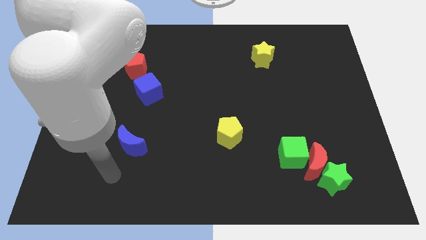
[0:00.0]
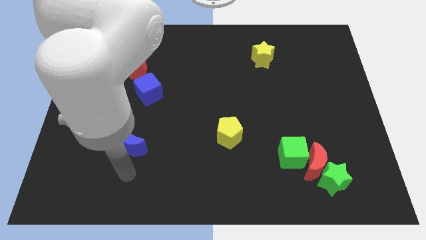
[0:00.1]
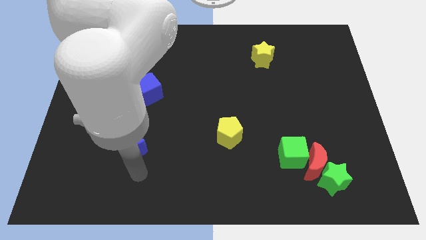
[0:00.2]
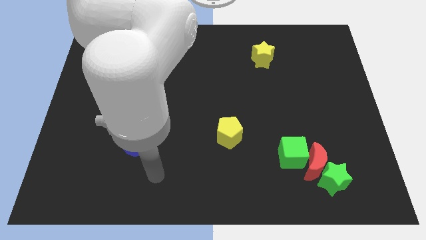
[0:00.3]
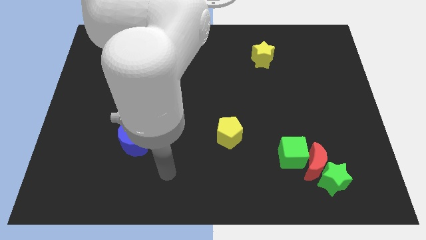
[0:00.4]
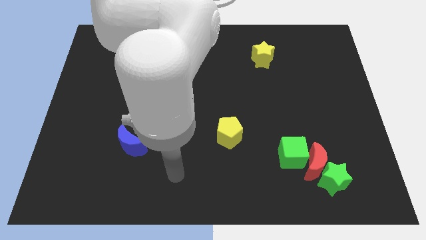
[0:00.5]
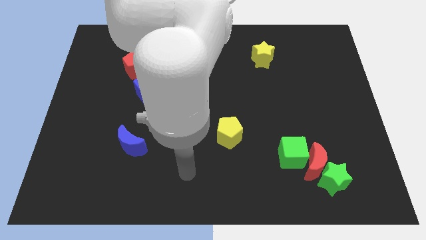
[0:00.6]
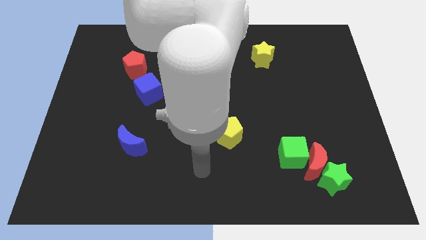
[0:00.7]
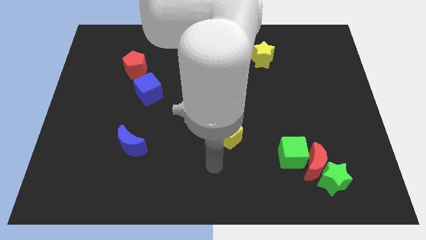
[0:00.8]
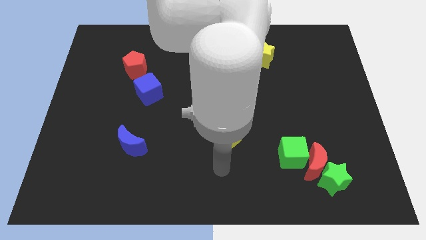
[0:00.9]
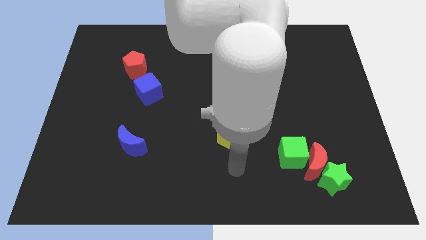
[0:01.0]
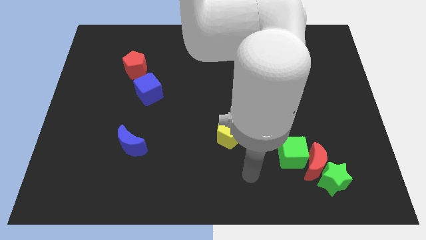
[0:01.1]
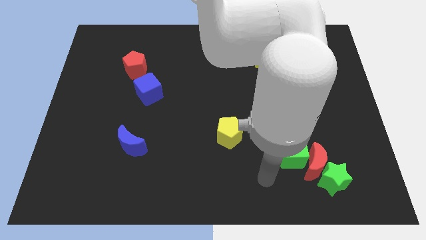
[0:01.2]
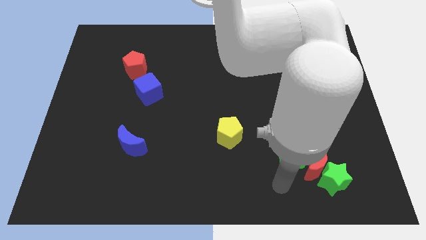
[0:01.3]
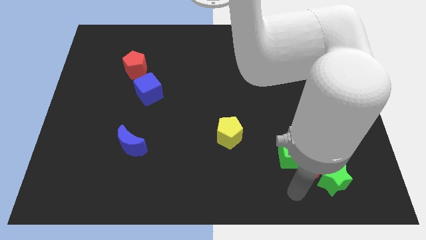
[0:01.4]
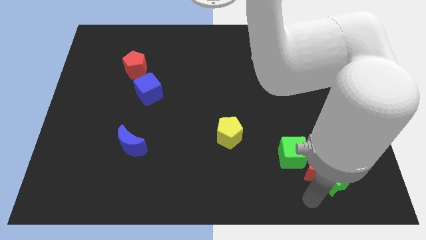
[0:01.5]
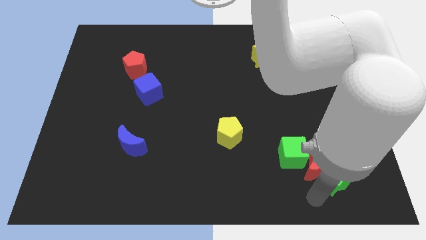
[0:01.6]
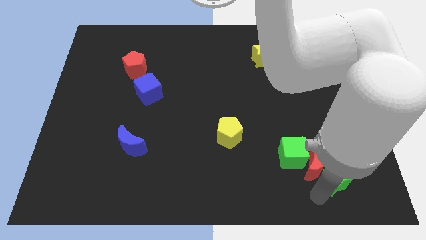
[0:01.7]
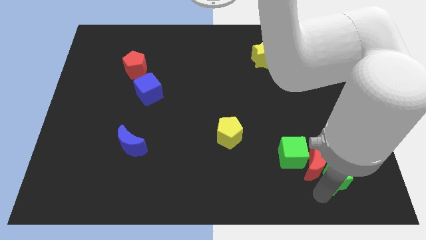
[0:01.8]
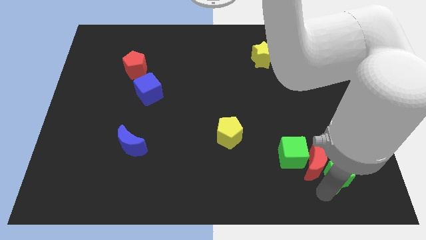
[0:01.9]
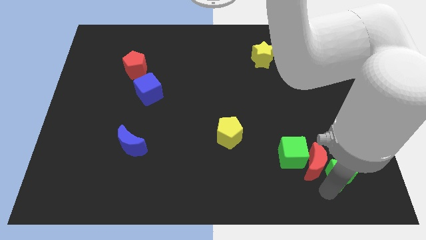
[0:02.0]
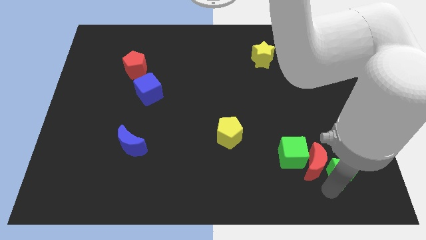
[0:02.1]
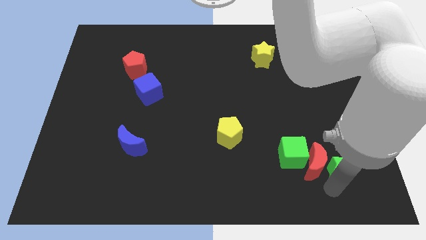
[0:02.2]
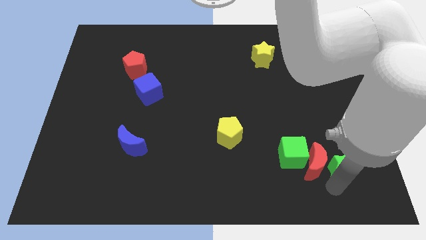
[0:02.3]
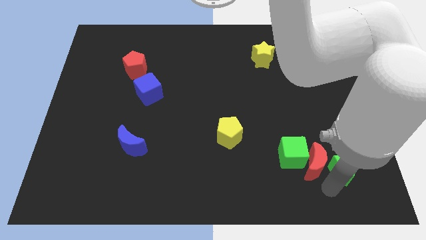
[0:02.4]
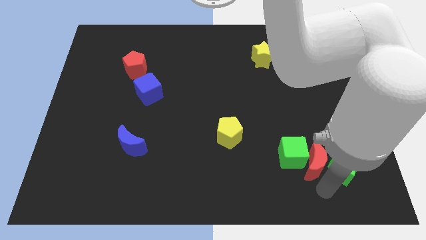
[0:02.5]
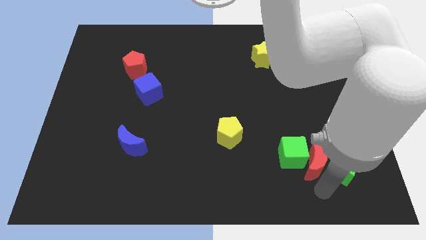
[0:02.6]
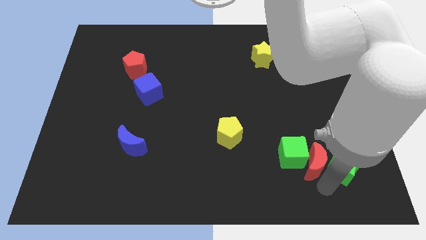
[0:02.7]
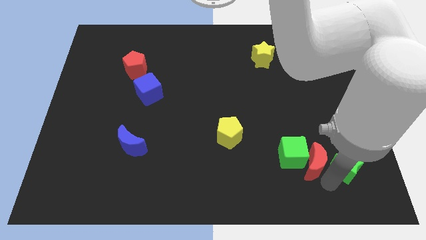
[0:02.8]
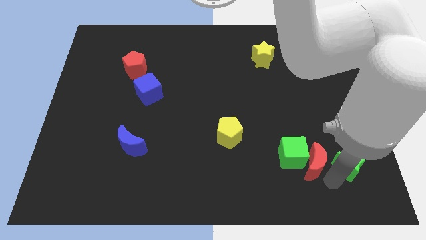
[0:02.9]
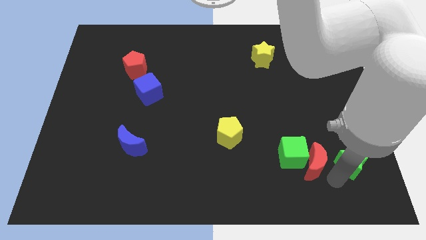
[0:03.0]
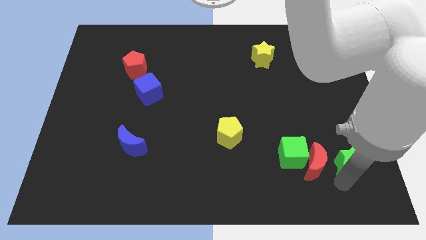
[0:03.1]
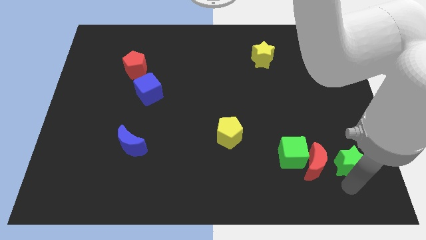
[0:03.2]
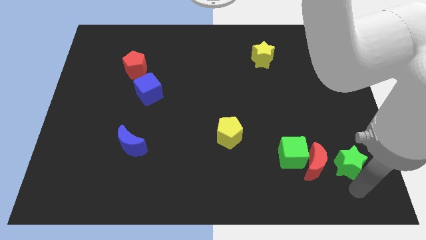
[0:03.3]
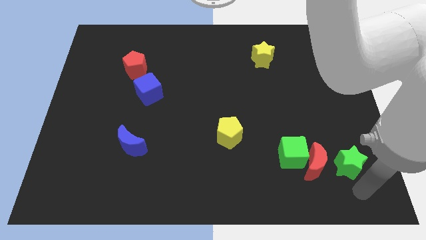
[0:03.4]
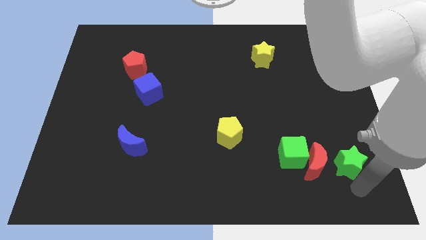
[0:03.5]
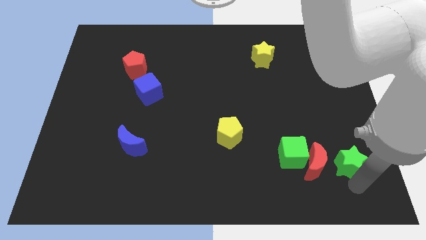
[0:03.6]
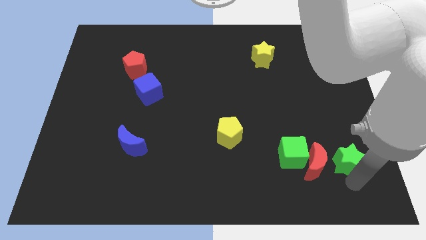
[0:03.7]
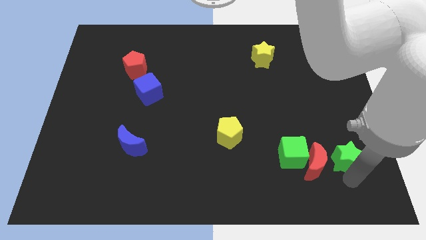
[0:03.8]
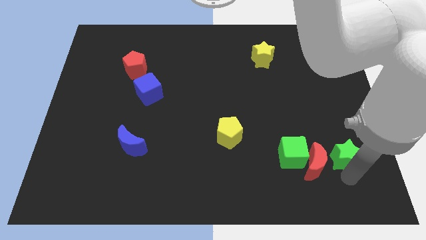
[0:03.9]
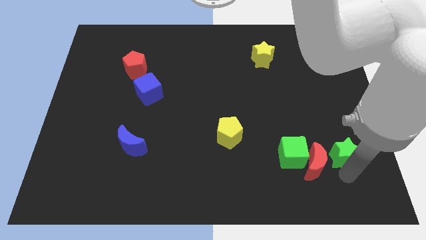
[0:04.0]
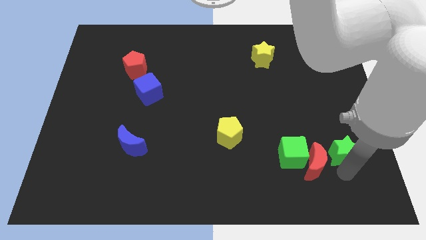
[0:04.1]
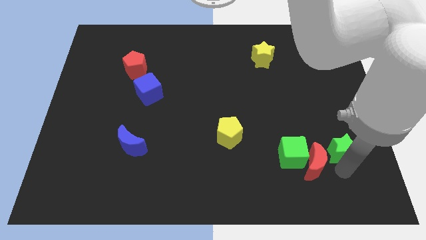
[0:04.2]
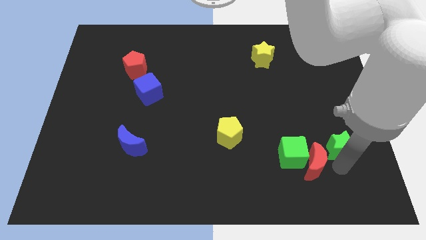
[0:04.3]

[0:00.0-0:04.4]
push the green star a little upwards

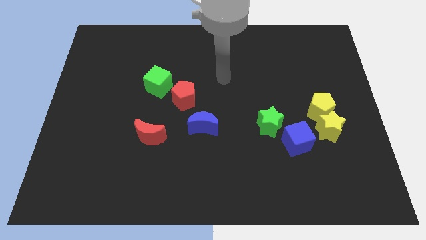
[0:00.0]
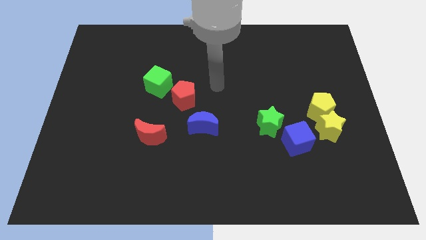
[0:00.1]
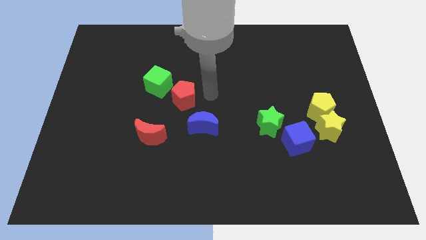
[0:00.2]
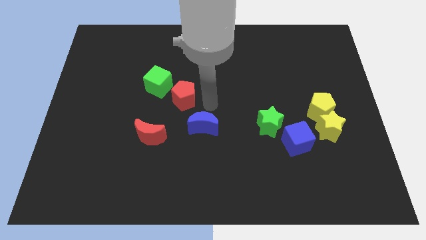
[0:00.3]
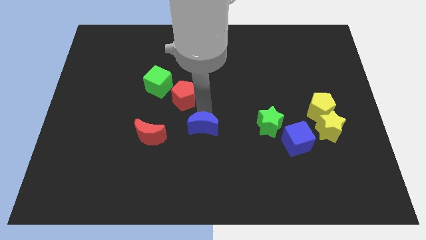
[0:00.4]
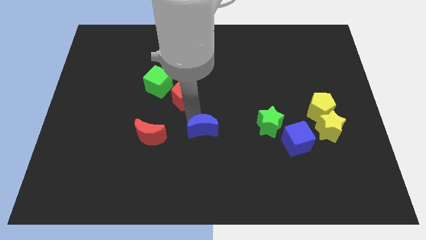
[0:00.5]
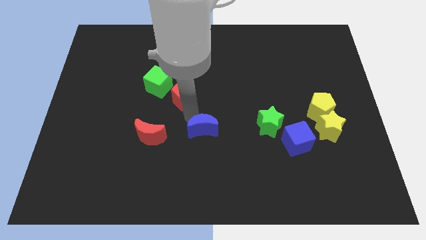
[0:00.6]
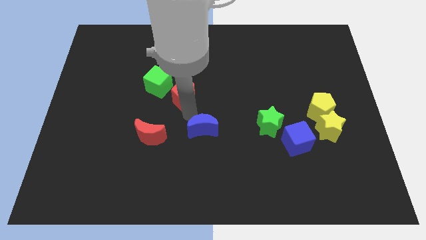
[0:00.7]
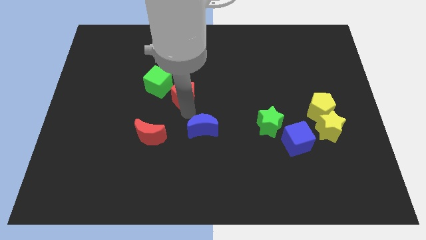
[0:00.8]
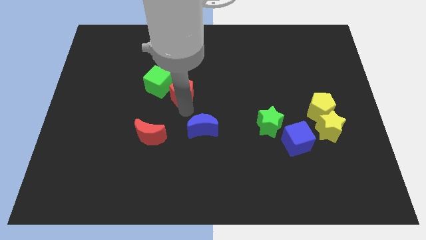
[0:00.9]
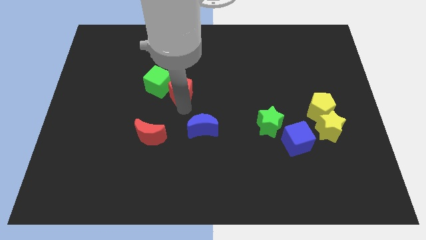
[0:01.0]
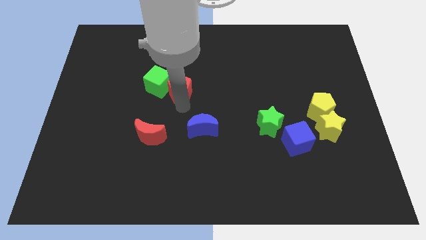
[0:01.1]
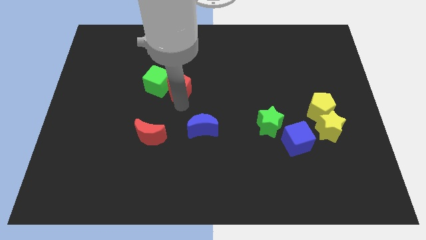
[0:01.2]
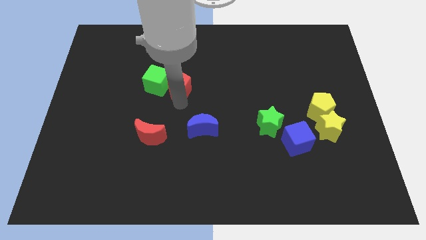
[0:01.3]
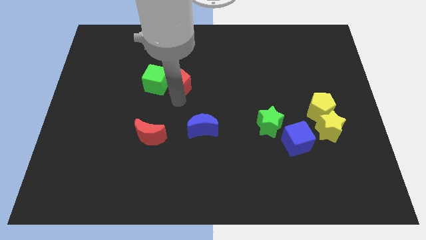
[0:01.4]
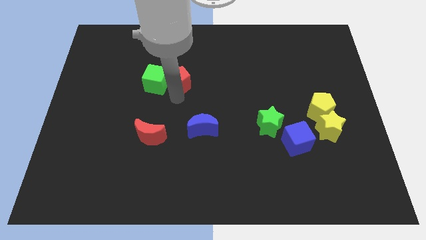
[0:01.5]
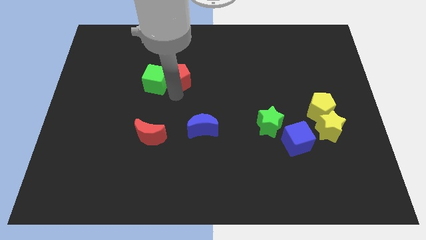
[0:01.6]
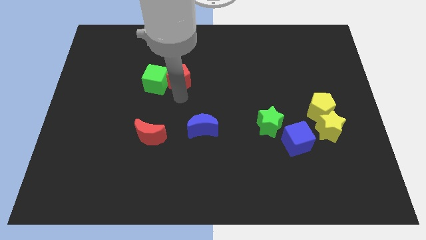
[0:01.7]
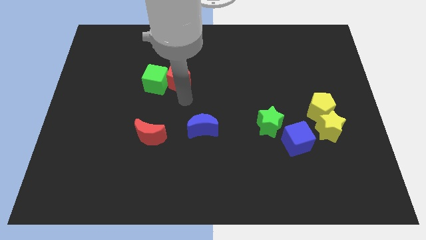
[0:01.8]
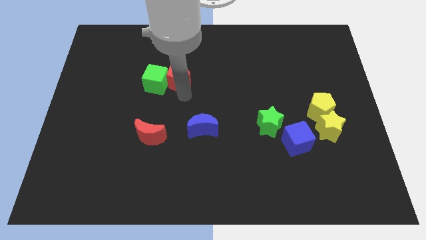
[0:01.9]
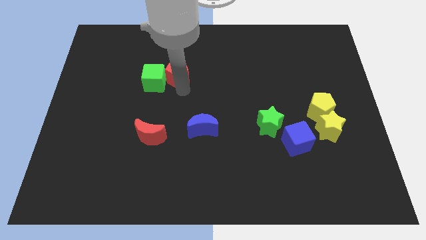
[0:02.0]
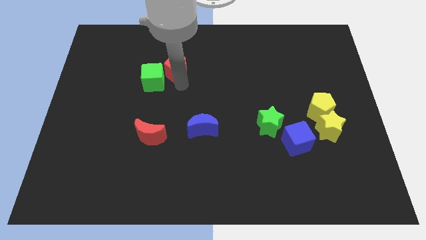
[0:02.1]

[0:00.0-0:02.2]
slide the red pentagon a bit upwards and then to the left

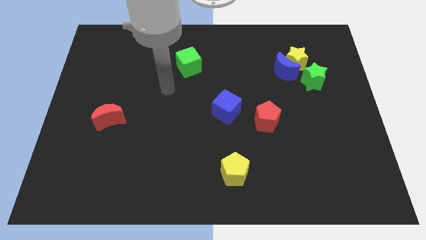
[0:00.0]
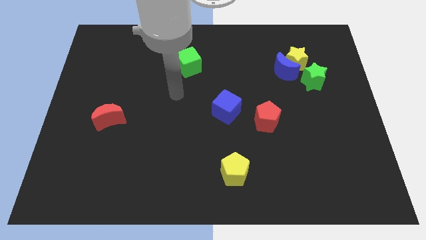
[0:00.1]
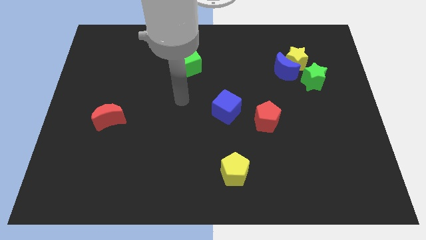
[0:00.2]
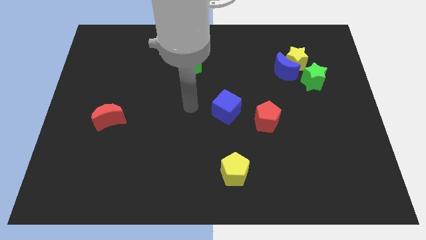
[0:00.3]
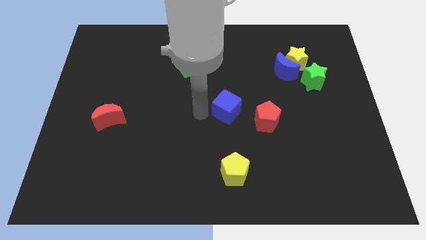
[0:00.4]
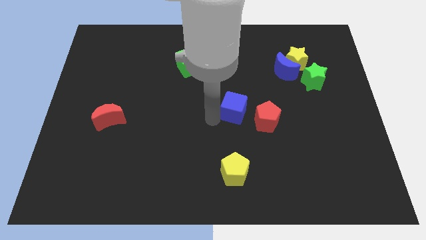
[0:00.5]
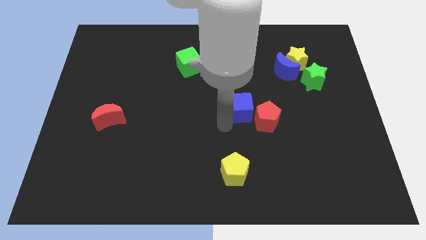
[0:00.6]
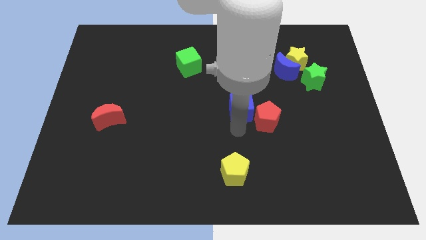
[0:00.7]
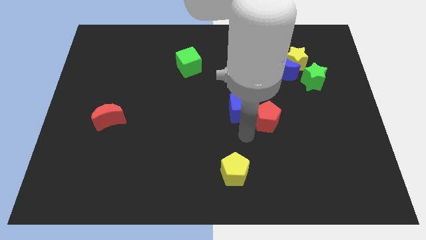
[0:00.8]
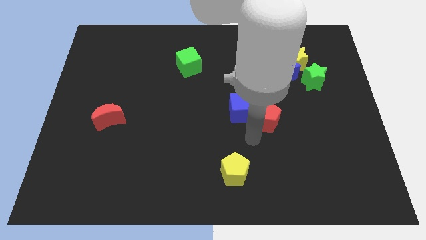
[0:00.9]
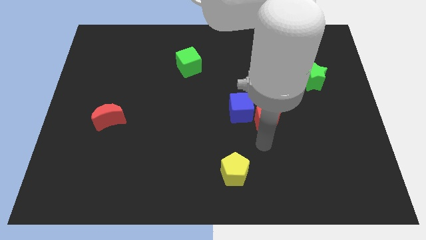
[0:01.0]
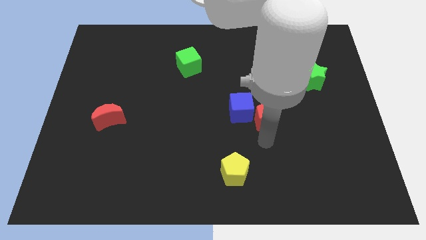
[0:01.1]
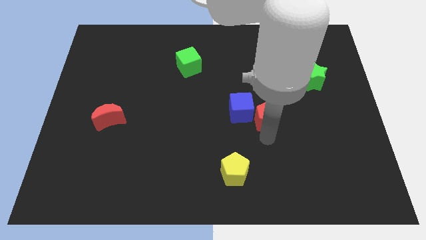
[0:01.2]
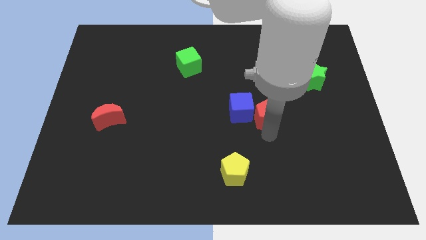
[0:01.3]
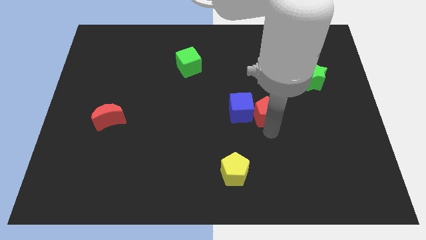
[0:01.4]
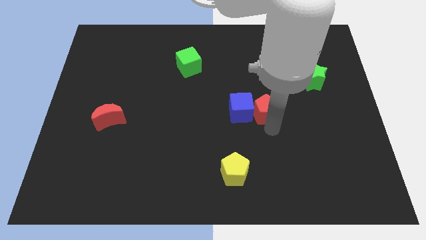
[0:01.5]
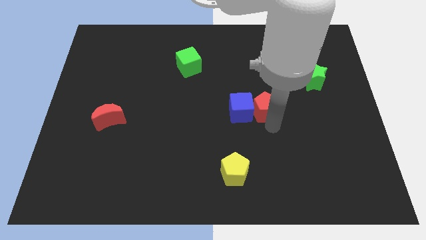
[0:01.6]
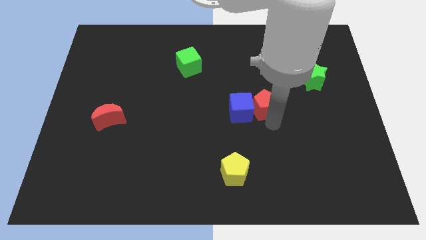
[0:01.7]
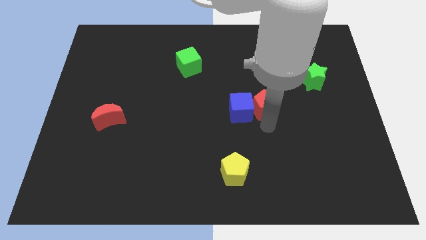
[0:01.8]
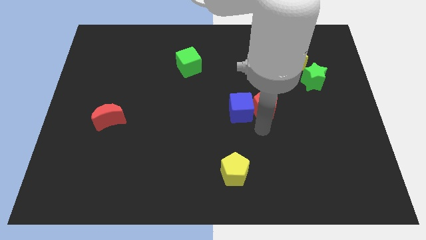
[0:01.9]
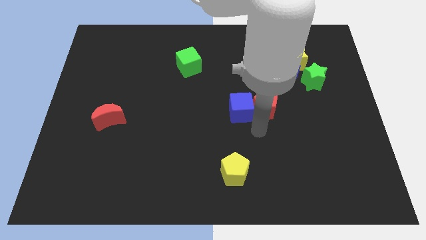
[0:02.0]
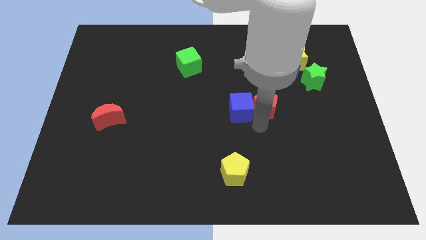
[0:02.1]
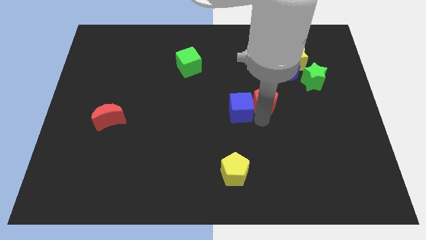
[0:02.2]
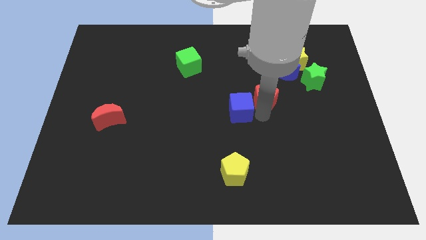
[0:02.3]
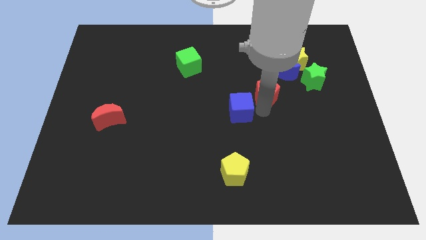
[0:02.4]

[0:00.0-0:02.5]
slightly push the red pentagon up
